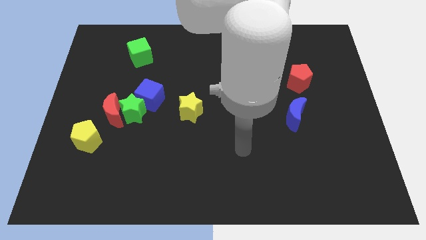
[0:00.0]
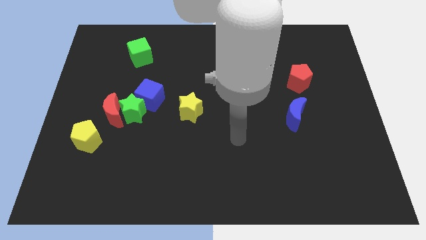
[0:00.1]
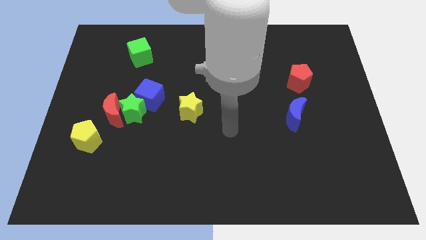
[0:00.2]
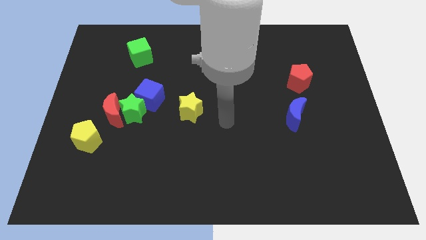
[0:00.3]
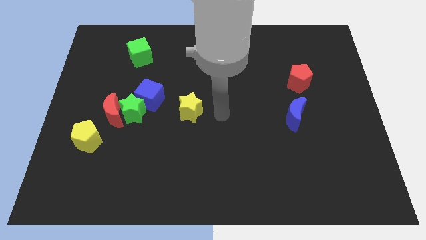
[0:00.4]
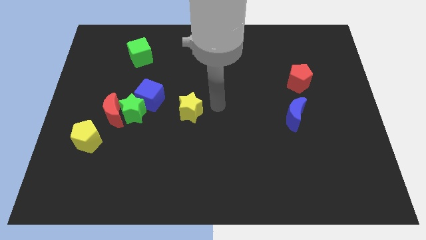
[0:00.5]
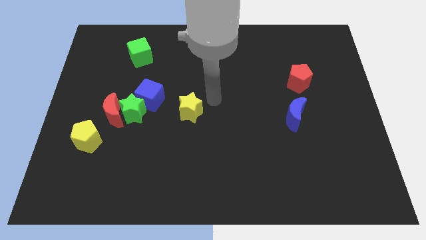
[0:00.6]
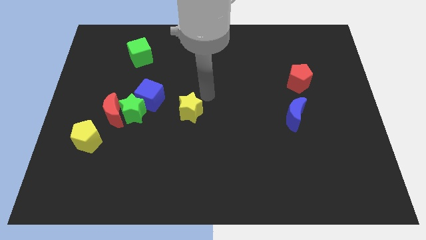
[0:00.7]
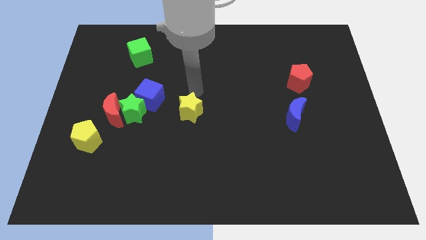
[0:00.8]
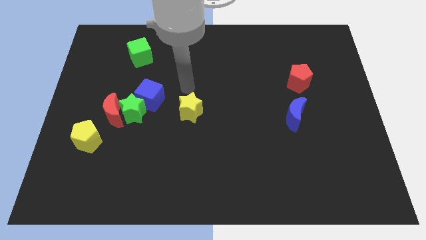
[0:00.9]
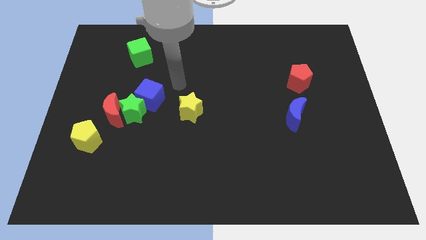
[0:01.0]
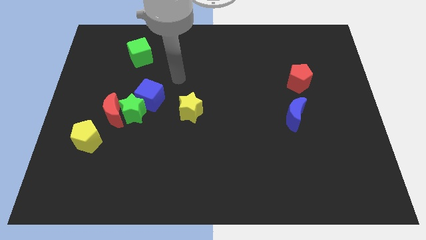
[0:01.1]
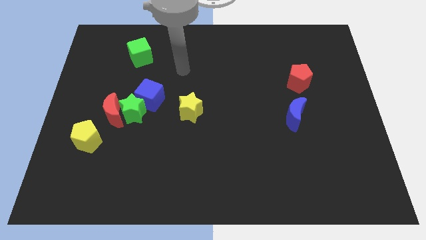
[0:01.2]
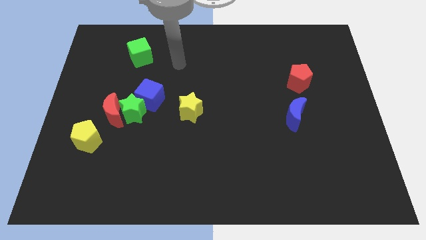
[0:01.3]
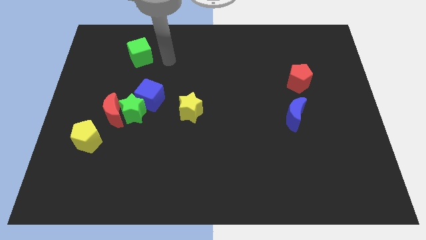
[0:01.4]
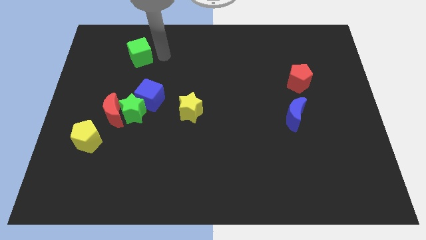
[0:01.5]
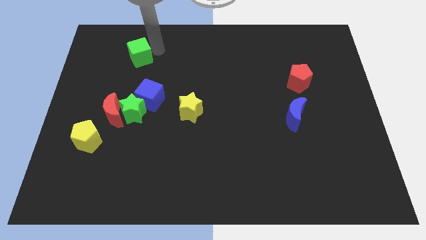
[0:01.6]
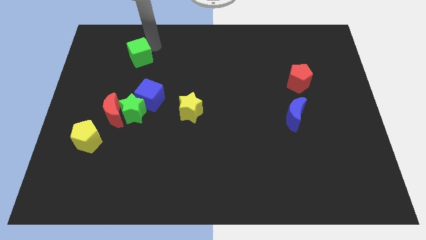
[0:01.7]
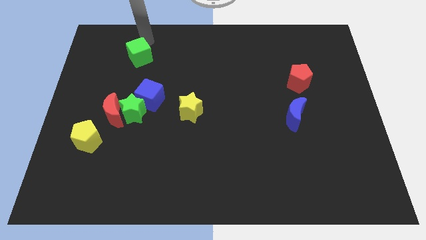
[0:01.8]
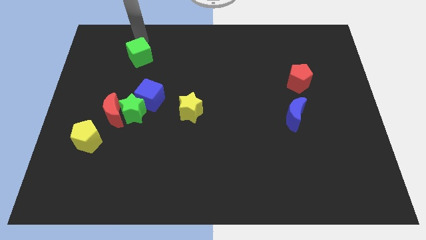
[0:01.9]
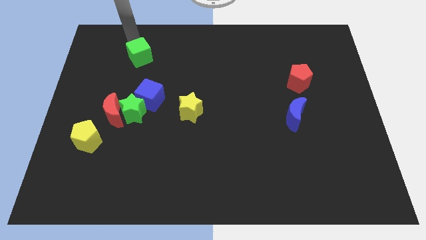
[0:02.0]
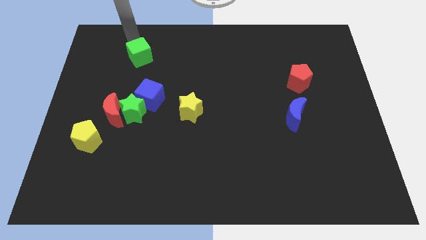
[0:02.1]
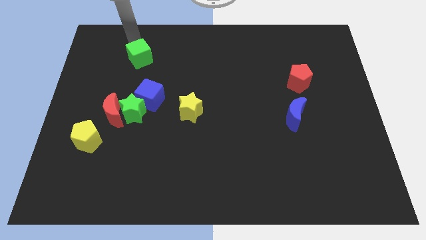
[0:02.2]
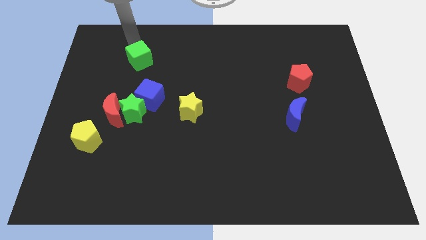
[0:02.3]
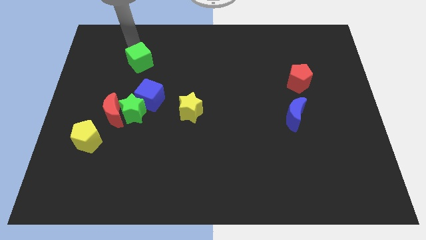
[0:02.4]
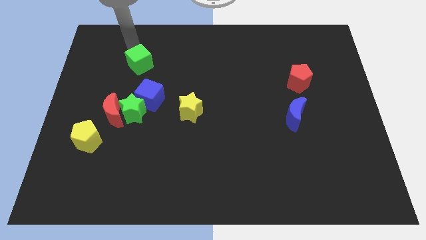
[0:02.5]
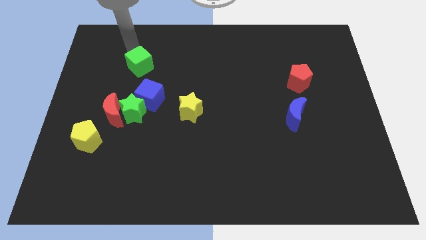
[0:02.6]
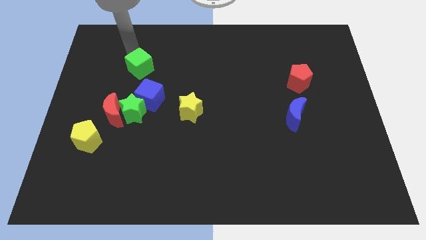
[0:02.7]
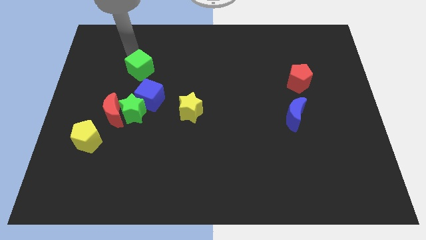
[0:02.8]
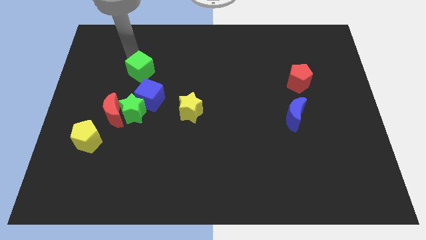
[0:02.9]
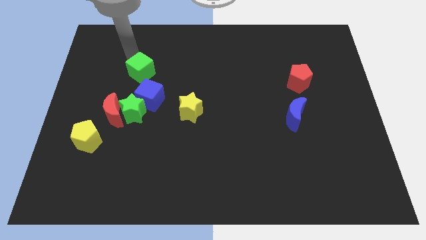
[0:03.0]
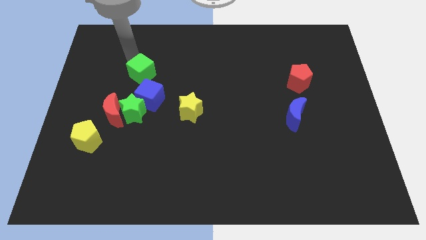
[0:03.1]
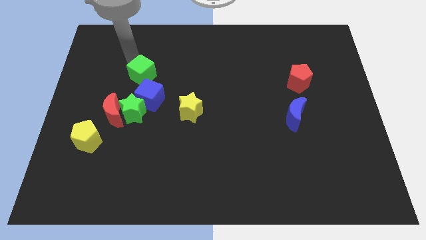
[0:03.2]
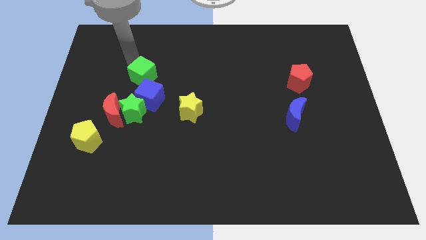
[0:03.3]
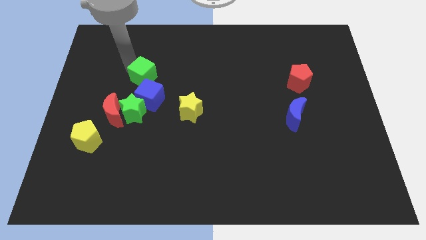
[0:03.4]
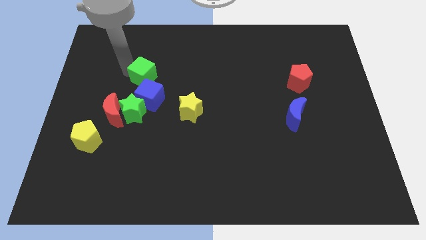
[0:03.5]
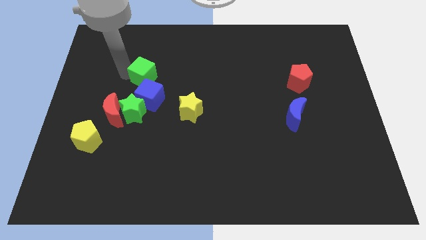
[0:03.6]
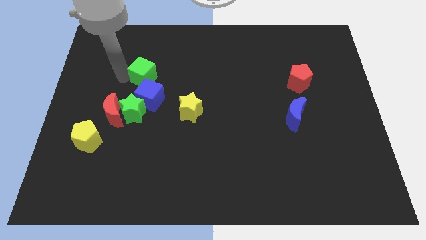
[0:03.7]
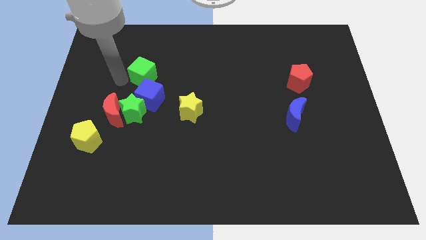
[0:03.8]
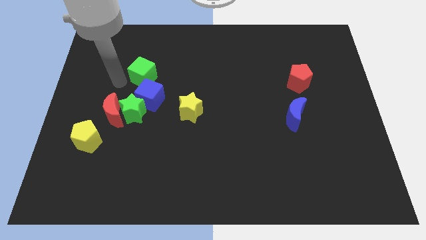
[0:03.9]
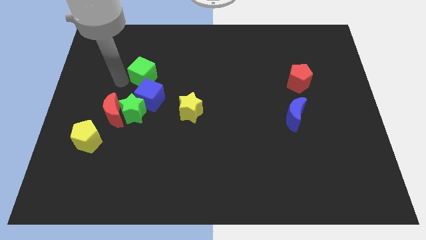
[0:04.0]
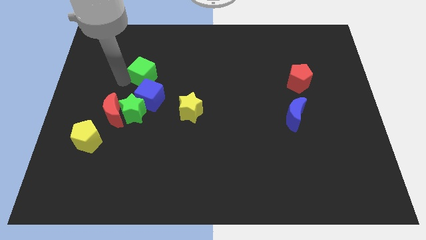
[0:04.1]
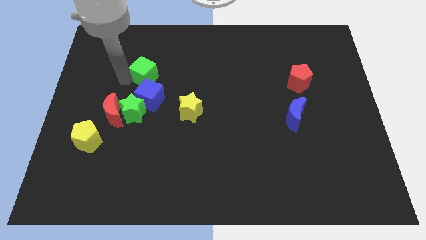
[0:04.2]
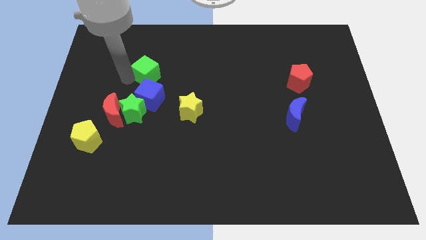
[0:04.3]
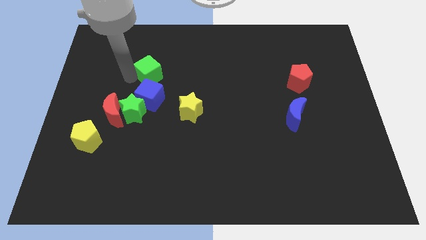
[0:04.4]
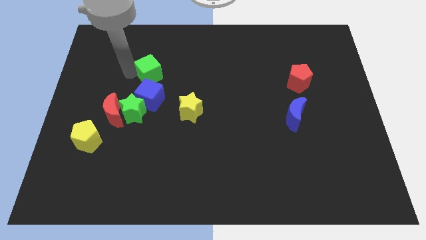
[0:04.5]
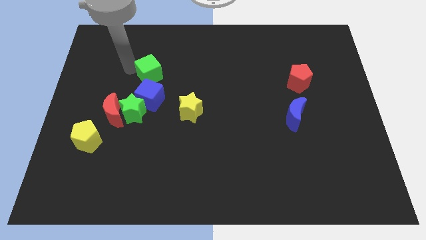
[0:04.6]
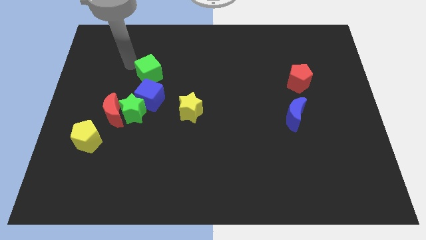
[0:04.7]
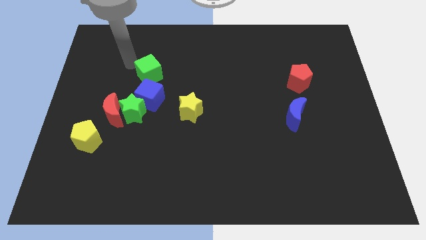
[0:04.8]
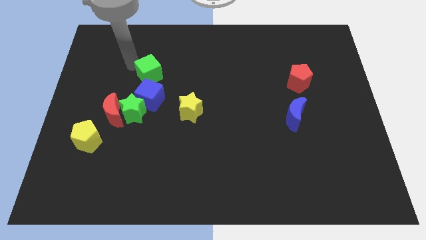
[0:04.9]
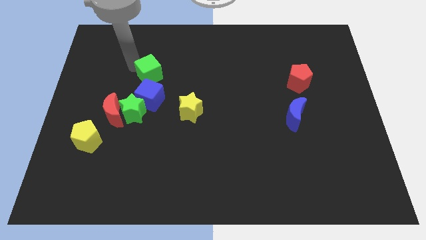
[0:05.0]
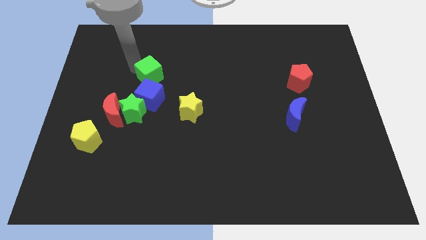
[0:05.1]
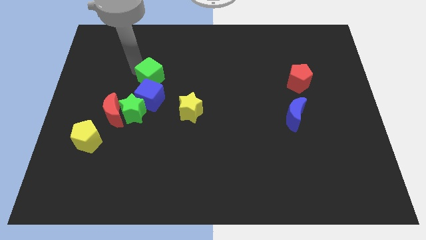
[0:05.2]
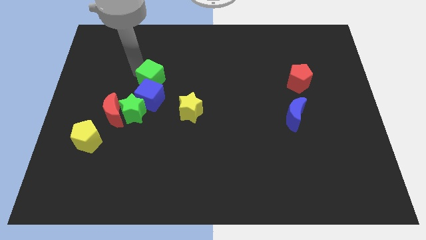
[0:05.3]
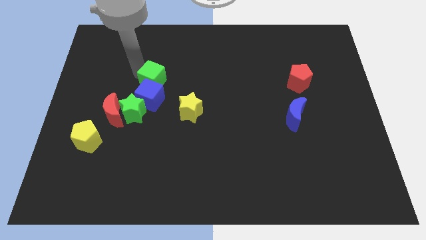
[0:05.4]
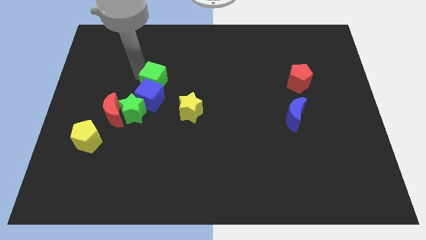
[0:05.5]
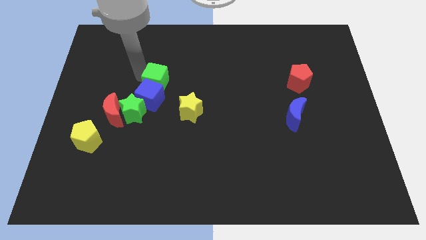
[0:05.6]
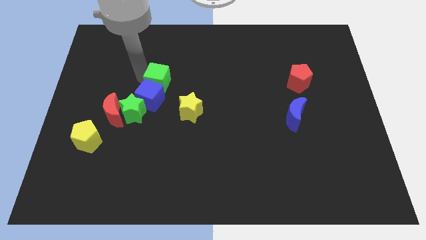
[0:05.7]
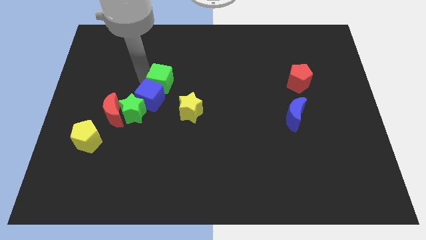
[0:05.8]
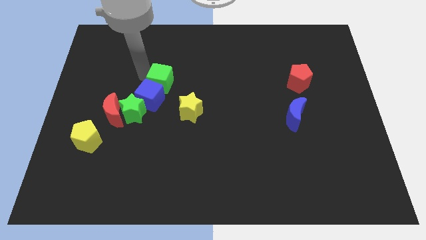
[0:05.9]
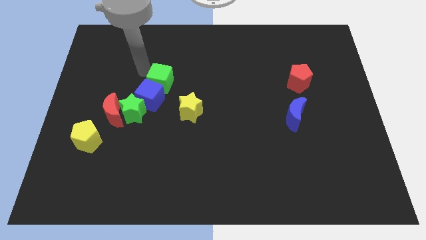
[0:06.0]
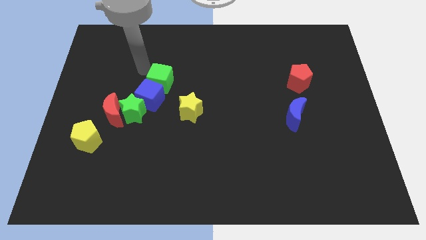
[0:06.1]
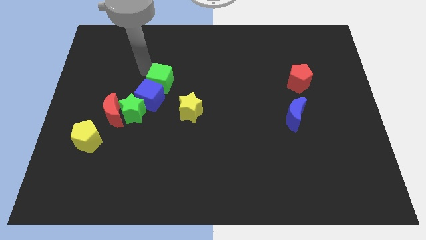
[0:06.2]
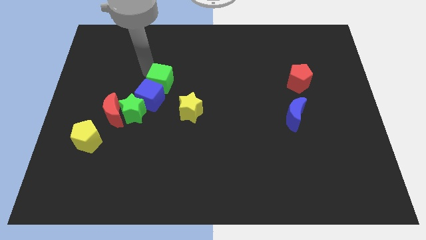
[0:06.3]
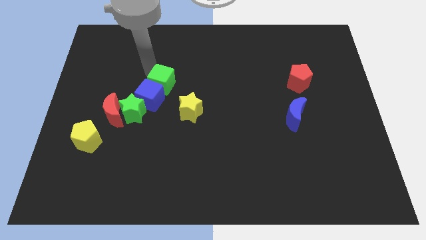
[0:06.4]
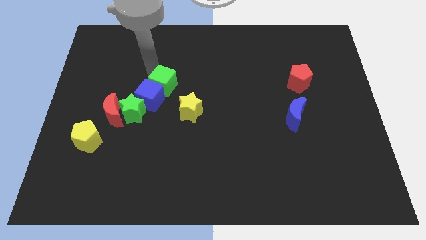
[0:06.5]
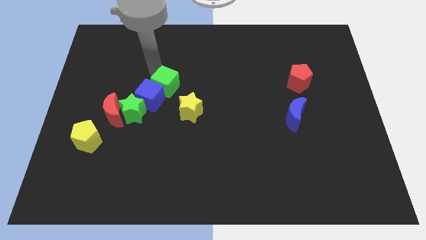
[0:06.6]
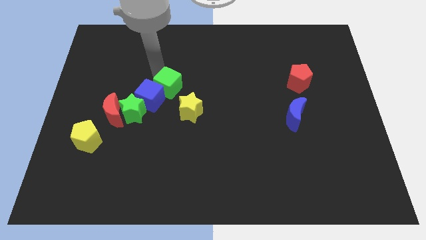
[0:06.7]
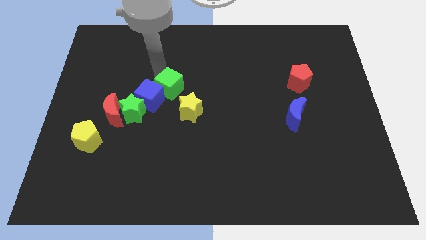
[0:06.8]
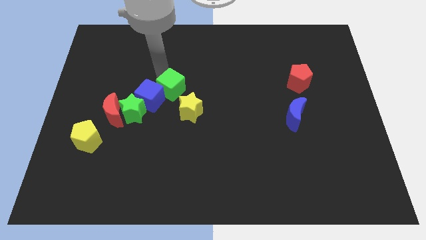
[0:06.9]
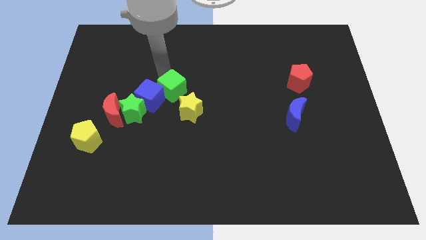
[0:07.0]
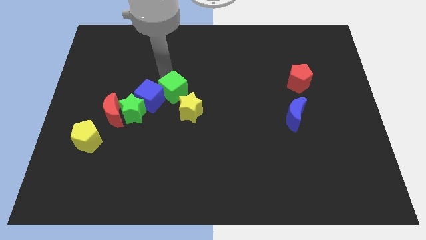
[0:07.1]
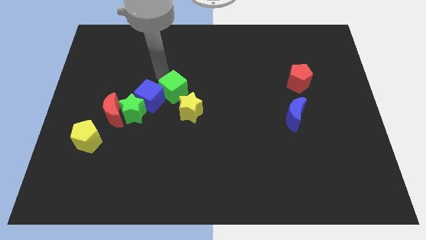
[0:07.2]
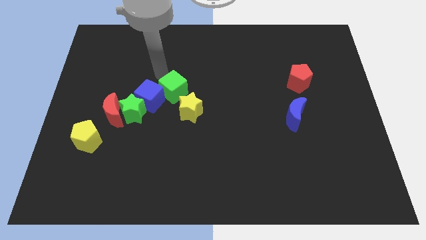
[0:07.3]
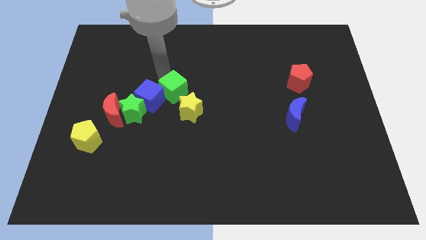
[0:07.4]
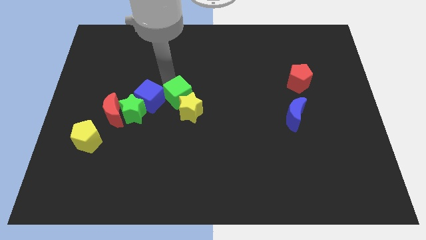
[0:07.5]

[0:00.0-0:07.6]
slide the green cube to the yellow star
